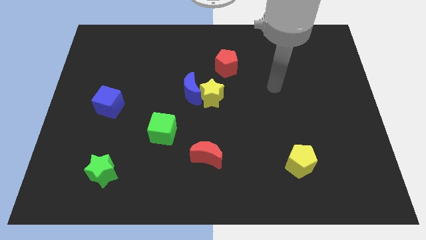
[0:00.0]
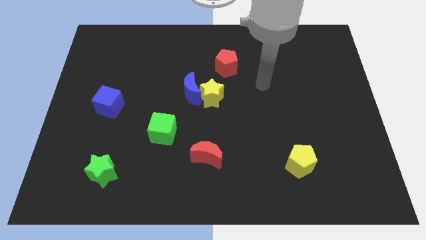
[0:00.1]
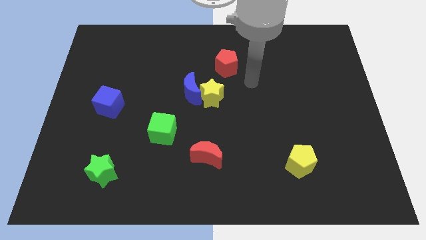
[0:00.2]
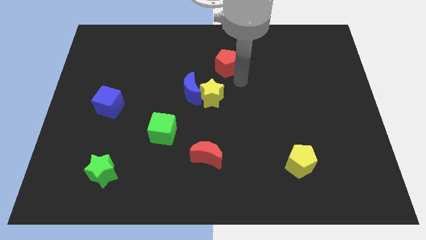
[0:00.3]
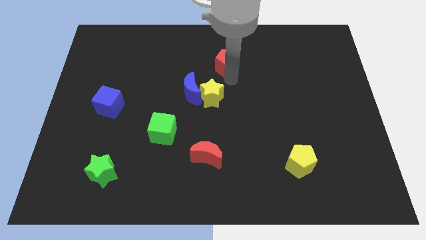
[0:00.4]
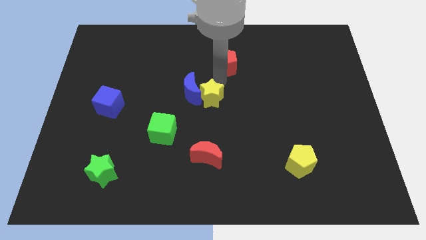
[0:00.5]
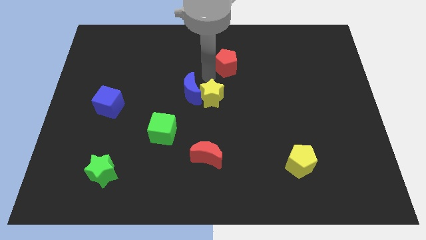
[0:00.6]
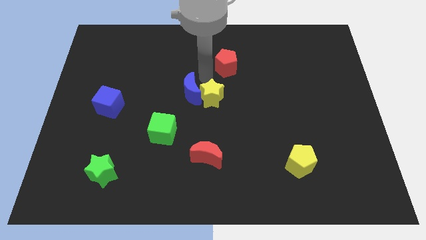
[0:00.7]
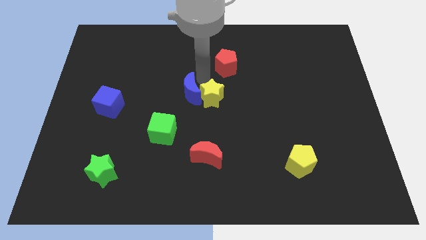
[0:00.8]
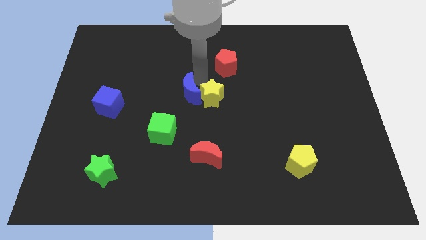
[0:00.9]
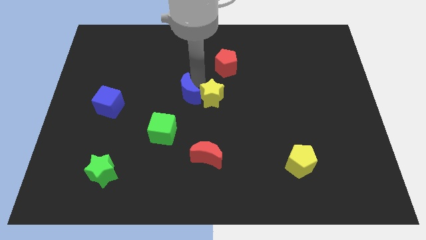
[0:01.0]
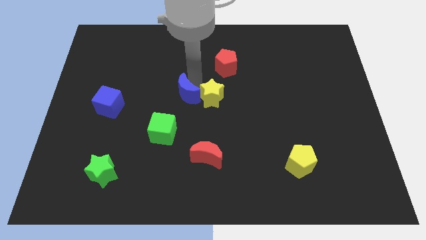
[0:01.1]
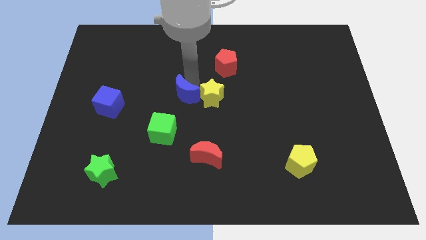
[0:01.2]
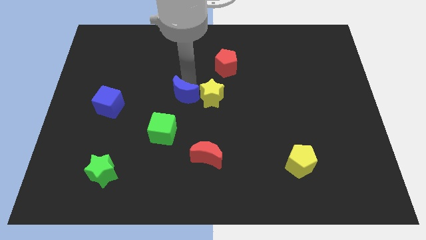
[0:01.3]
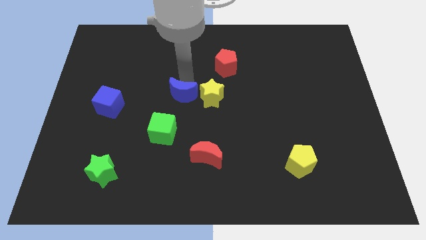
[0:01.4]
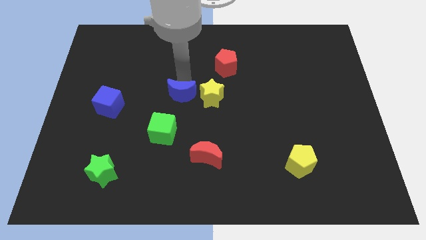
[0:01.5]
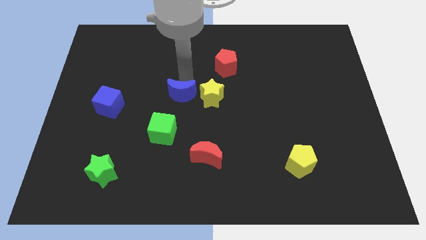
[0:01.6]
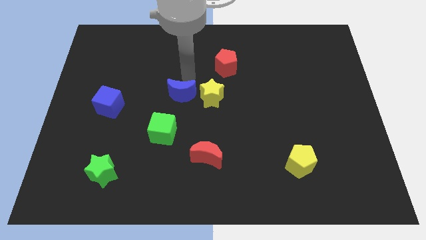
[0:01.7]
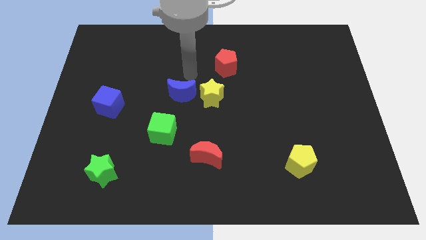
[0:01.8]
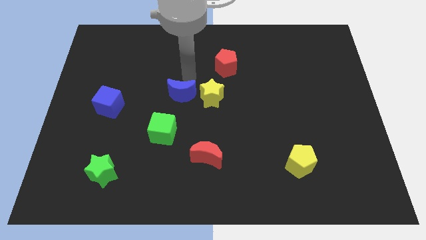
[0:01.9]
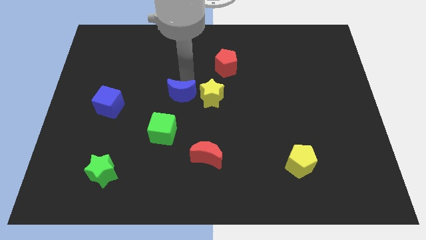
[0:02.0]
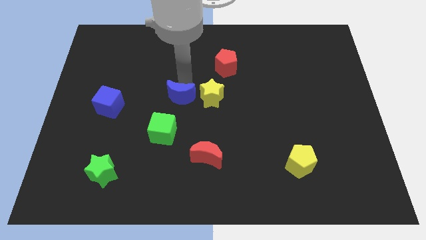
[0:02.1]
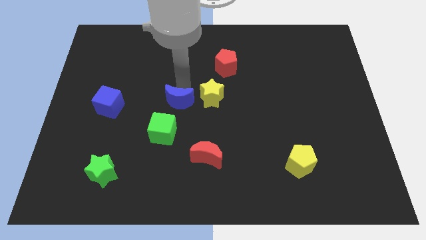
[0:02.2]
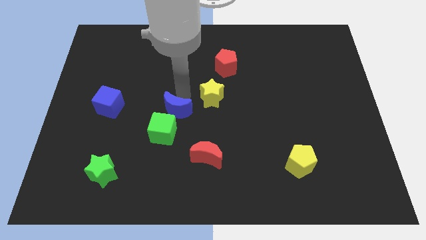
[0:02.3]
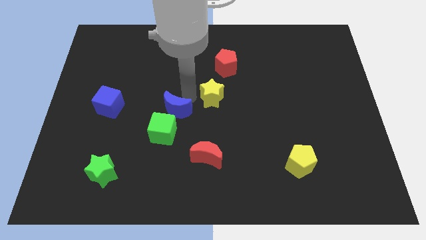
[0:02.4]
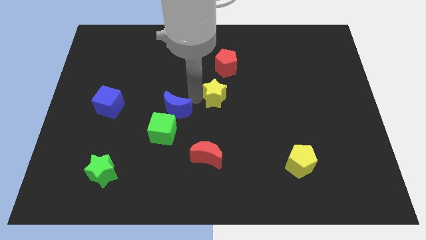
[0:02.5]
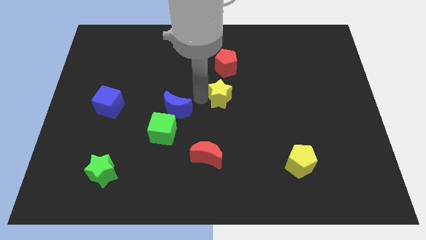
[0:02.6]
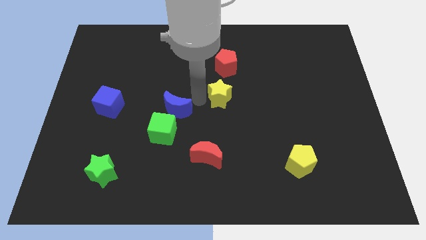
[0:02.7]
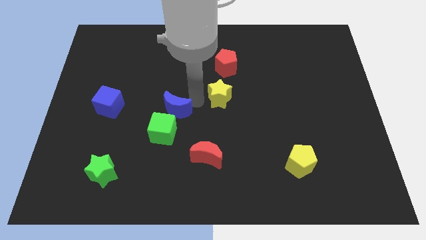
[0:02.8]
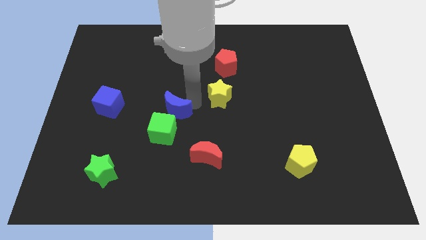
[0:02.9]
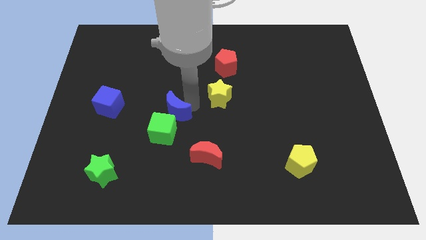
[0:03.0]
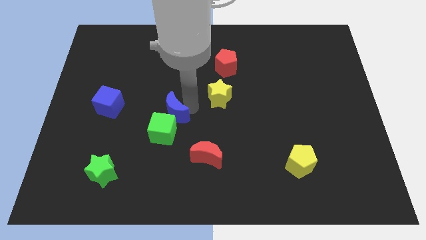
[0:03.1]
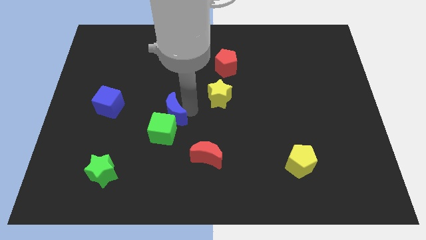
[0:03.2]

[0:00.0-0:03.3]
slide the blue moon downwards and then left slightly

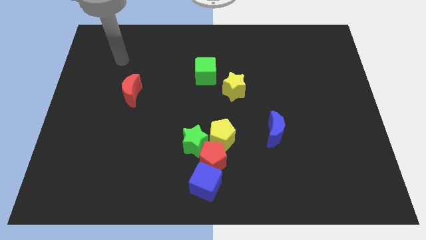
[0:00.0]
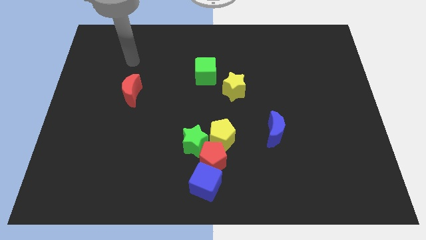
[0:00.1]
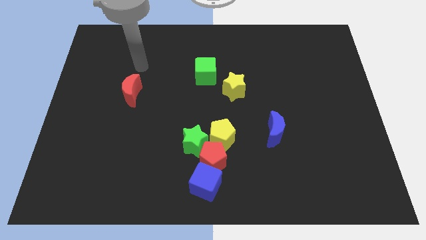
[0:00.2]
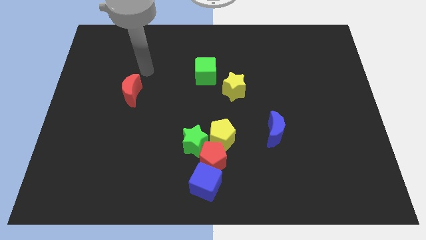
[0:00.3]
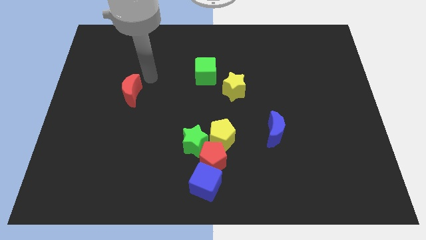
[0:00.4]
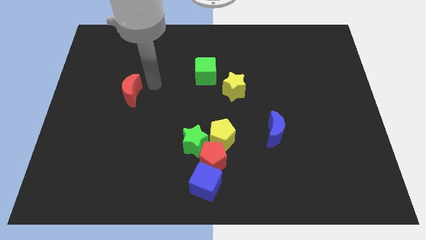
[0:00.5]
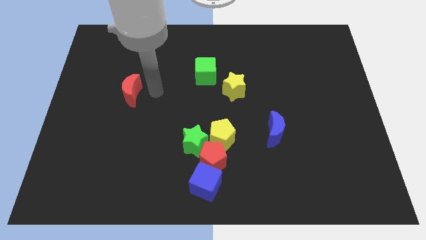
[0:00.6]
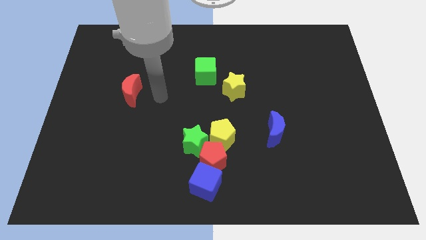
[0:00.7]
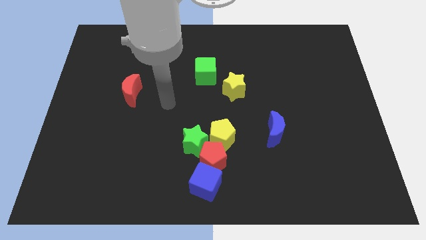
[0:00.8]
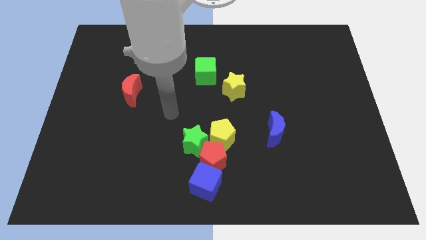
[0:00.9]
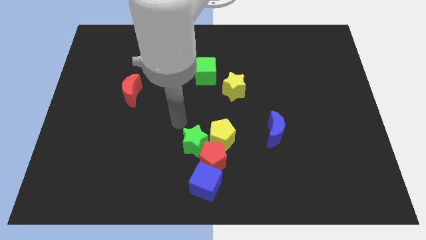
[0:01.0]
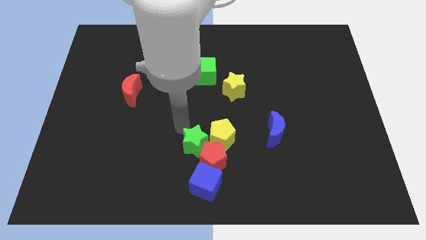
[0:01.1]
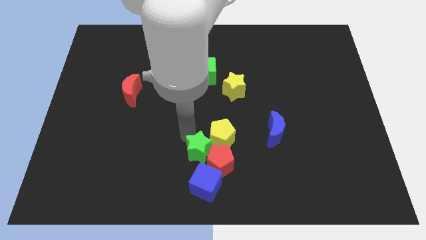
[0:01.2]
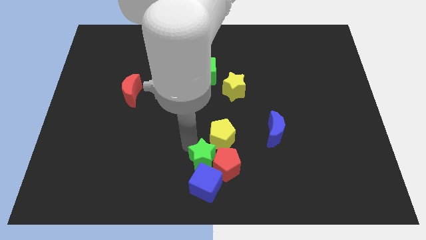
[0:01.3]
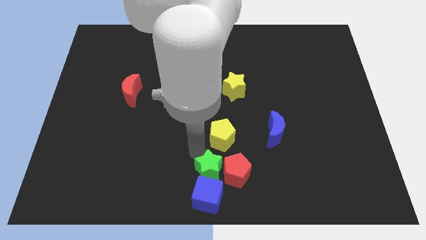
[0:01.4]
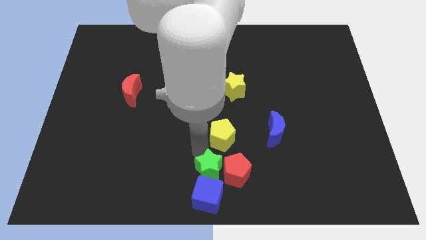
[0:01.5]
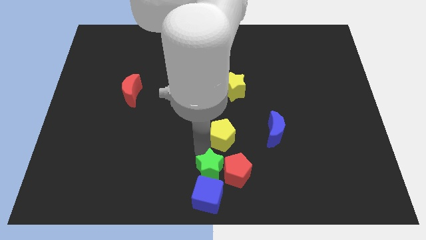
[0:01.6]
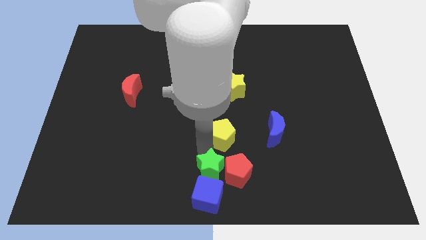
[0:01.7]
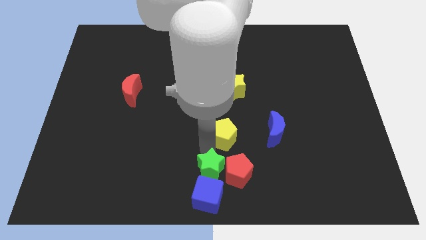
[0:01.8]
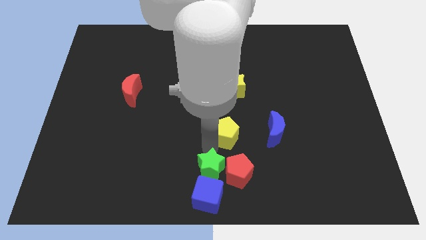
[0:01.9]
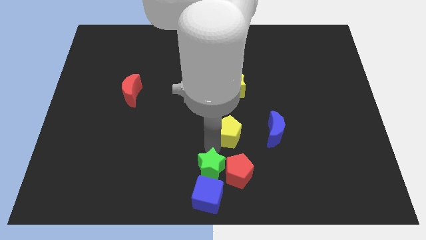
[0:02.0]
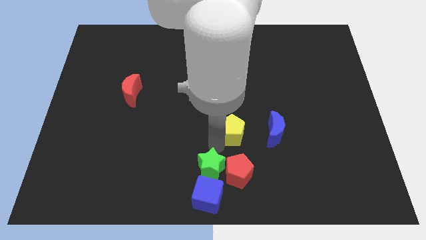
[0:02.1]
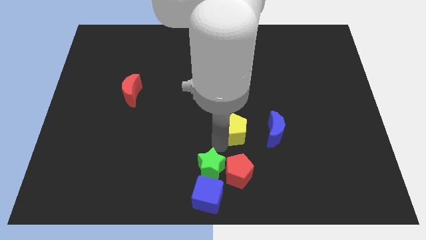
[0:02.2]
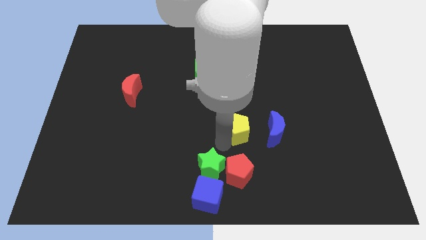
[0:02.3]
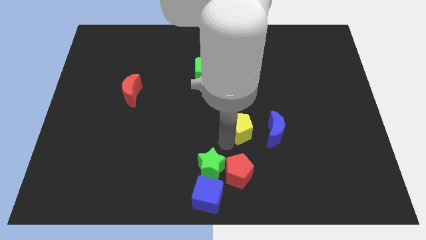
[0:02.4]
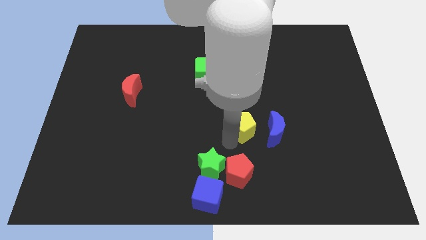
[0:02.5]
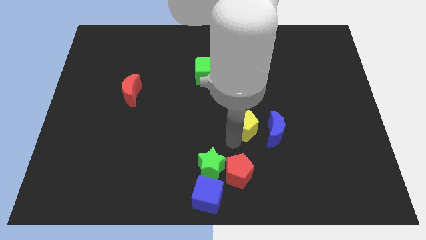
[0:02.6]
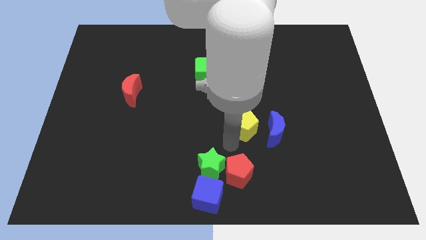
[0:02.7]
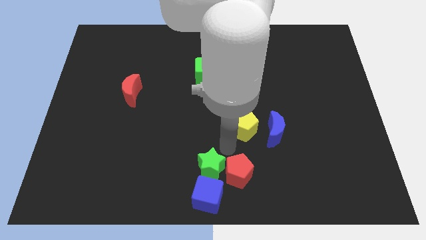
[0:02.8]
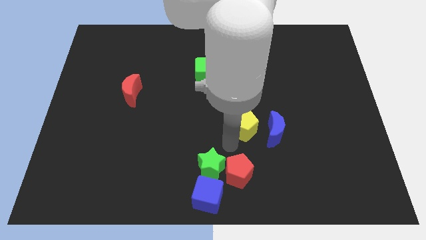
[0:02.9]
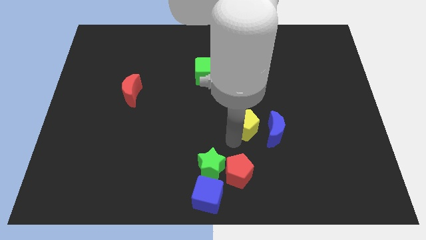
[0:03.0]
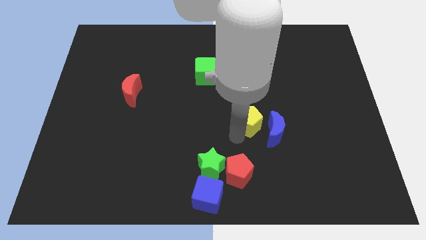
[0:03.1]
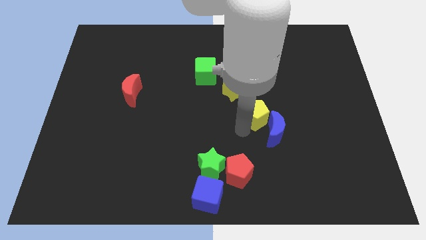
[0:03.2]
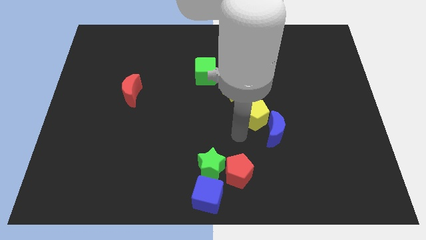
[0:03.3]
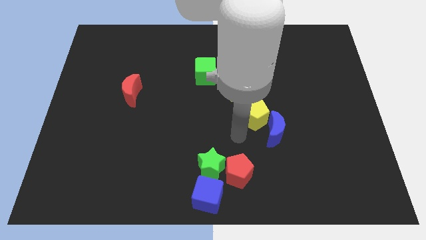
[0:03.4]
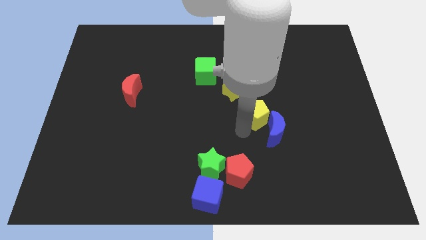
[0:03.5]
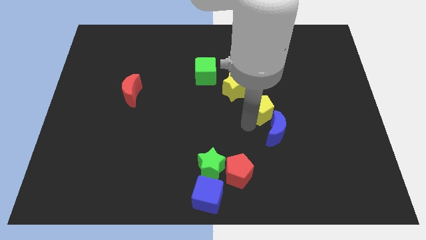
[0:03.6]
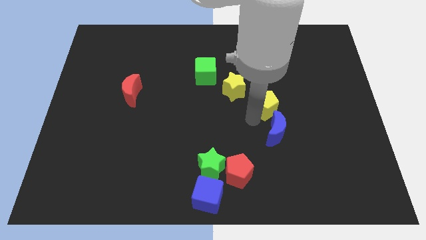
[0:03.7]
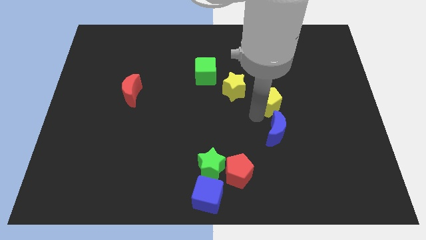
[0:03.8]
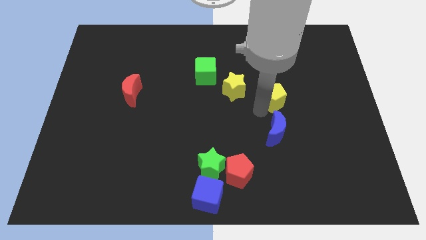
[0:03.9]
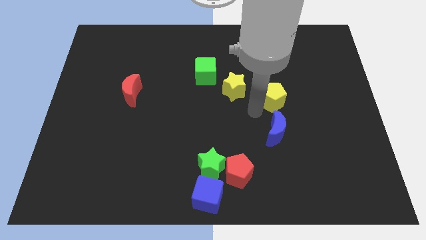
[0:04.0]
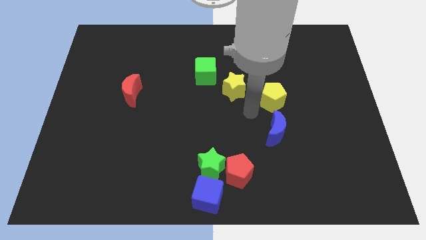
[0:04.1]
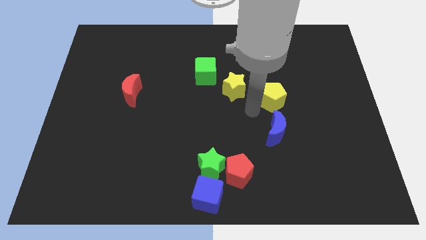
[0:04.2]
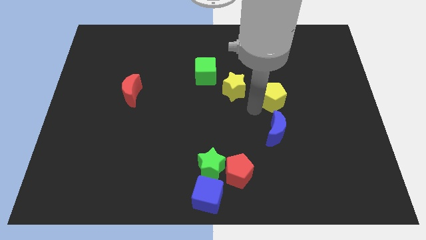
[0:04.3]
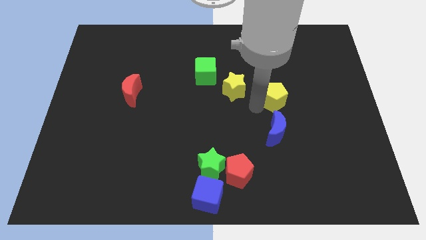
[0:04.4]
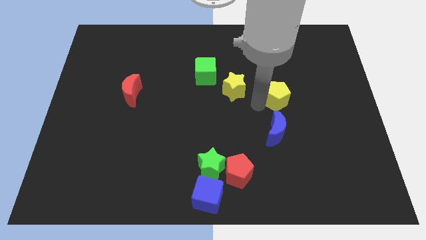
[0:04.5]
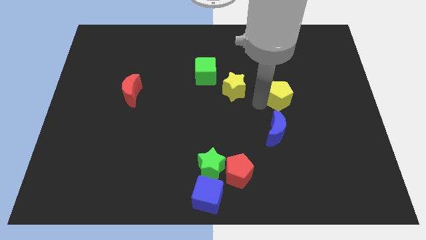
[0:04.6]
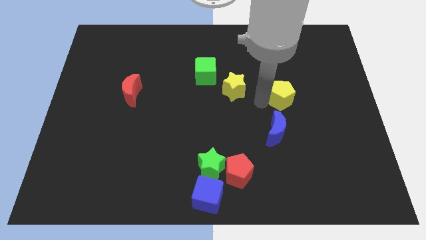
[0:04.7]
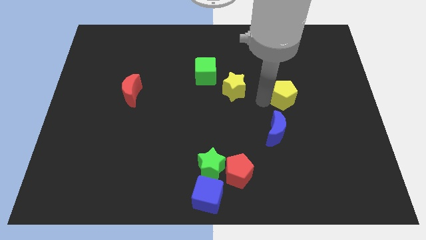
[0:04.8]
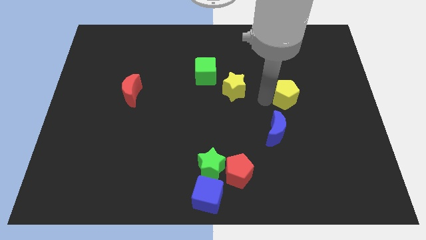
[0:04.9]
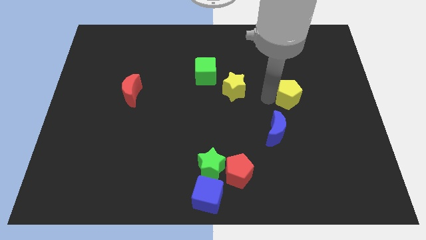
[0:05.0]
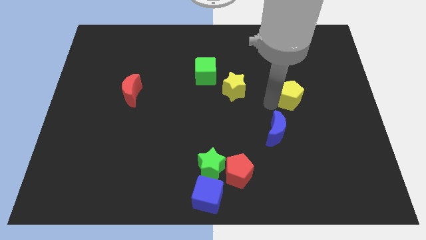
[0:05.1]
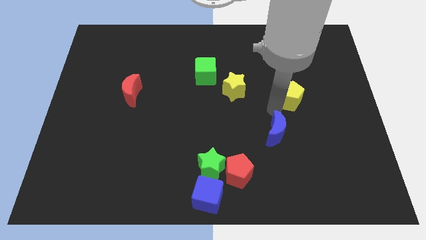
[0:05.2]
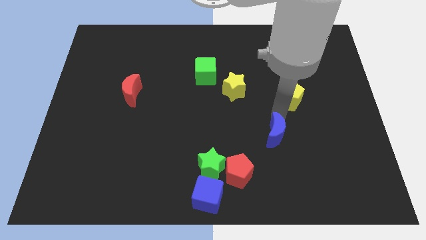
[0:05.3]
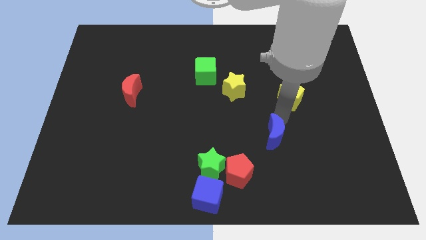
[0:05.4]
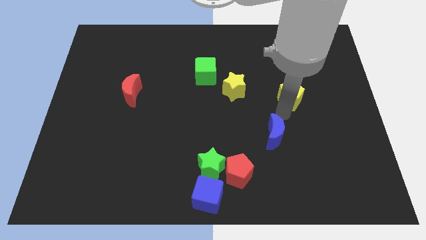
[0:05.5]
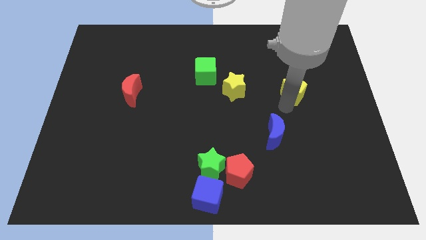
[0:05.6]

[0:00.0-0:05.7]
slide the yellow pentagon diagonally up and to the right
